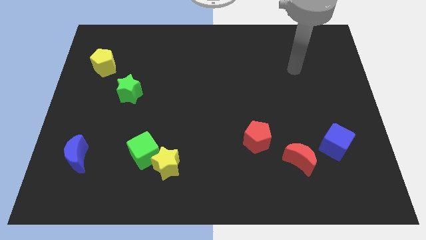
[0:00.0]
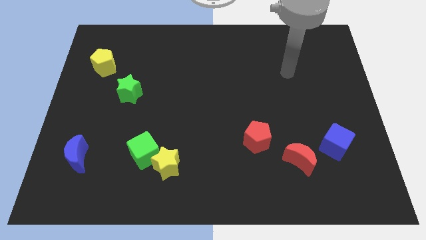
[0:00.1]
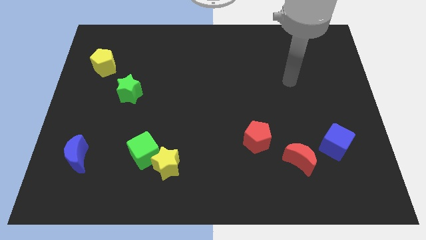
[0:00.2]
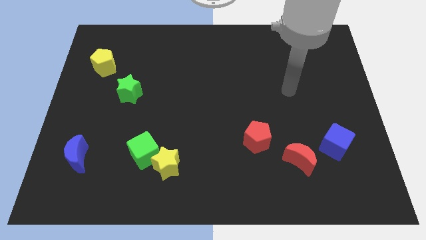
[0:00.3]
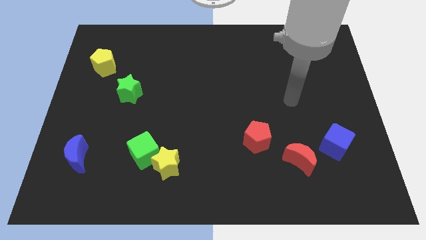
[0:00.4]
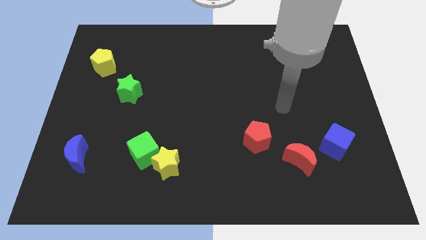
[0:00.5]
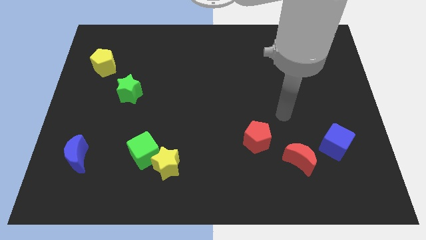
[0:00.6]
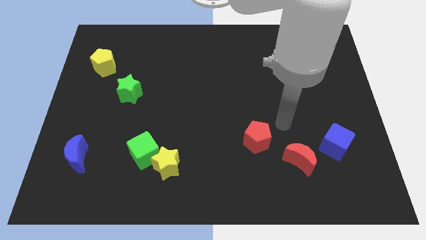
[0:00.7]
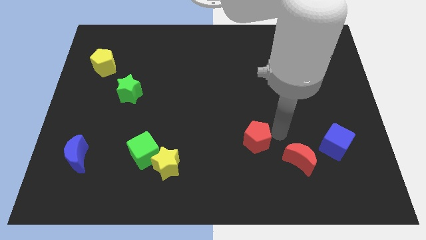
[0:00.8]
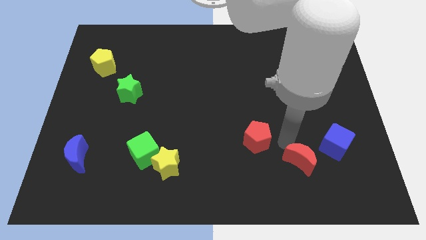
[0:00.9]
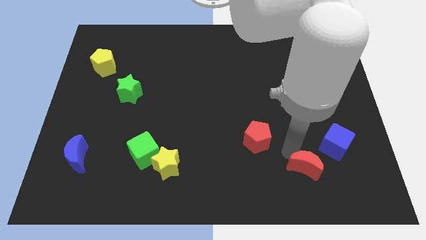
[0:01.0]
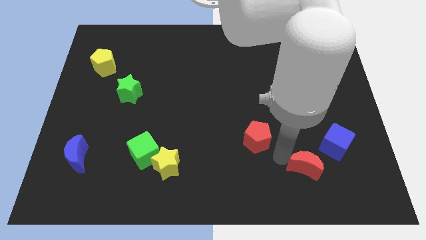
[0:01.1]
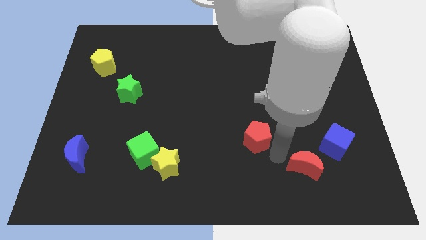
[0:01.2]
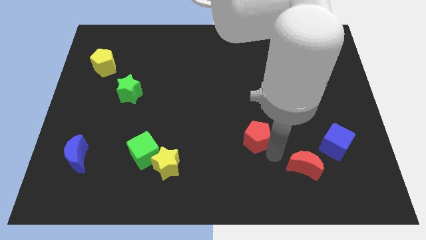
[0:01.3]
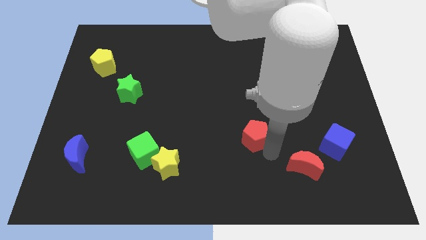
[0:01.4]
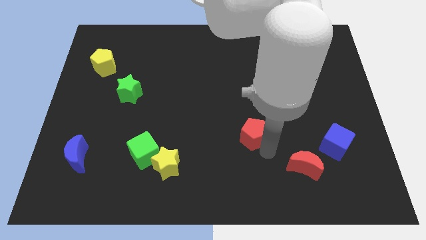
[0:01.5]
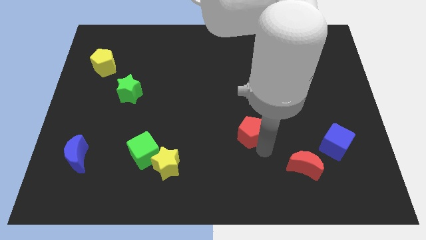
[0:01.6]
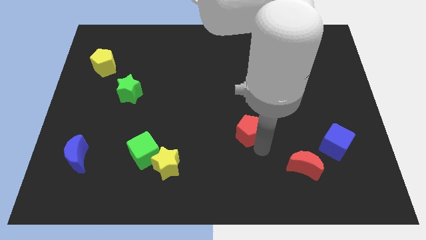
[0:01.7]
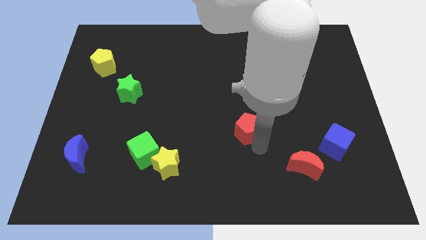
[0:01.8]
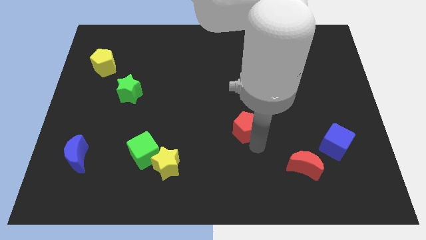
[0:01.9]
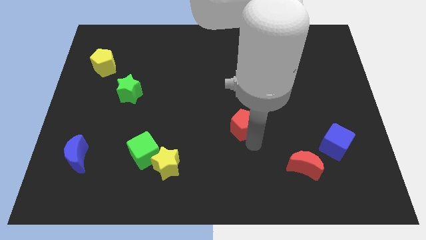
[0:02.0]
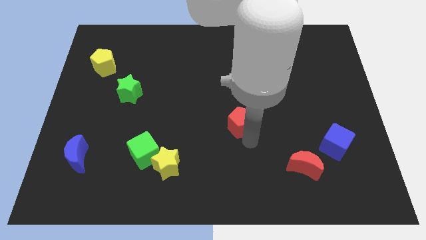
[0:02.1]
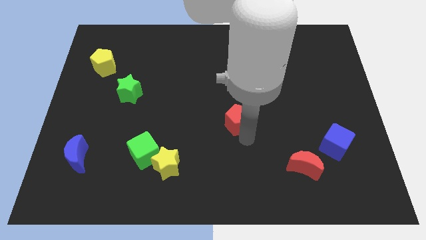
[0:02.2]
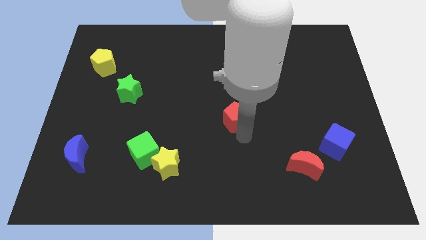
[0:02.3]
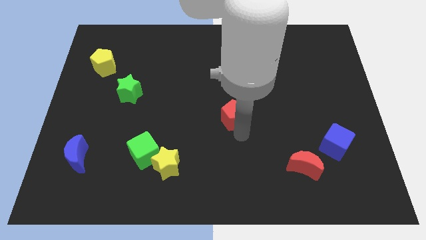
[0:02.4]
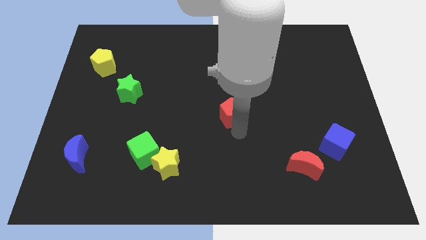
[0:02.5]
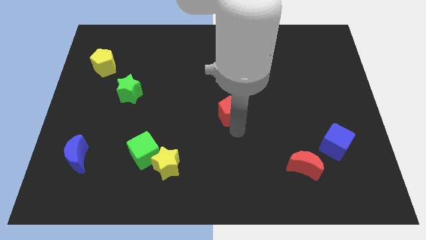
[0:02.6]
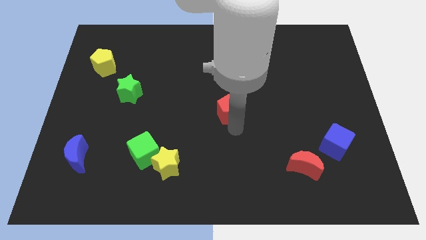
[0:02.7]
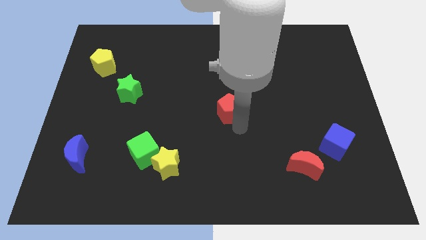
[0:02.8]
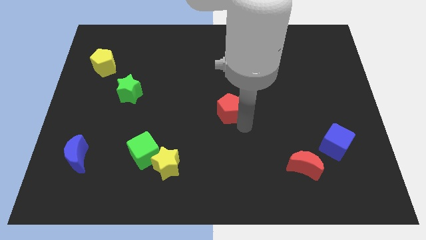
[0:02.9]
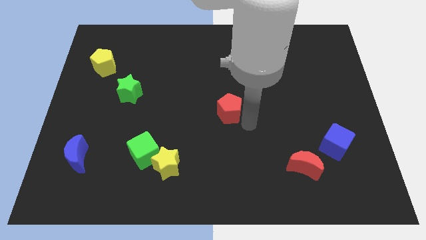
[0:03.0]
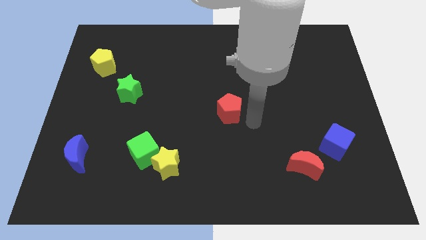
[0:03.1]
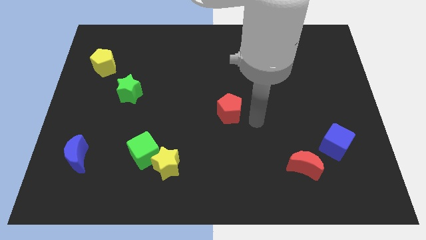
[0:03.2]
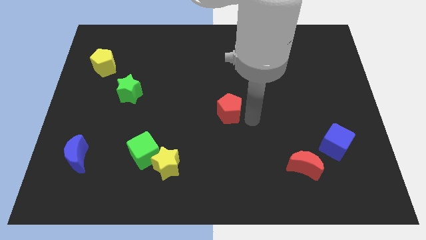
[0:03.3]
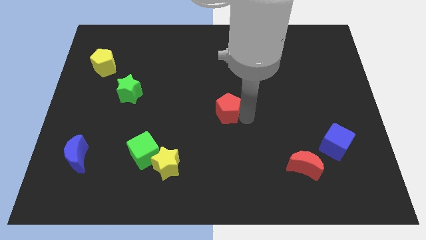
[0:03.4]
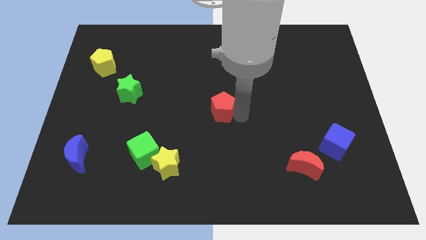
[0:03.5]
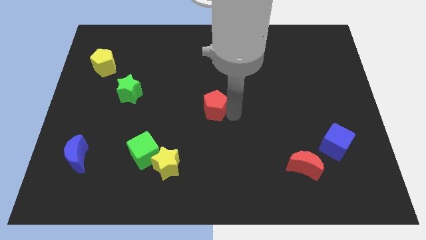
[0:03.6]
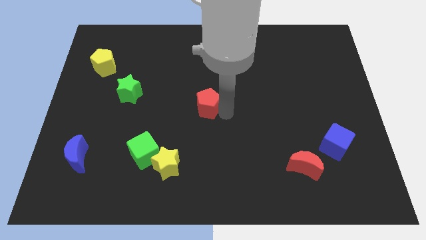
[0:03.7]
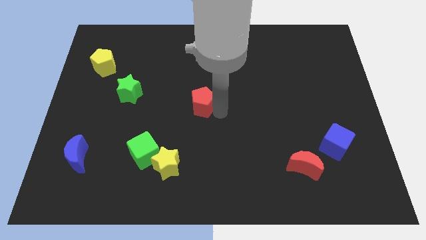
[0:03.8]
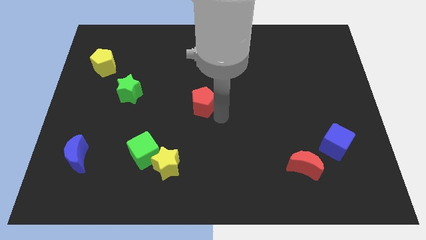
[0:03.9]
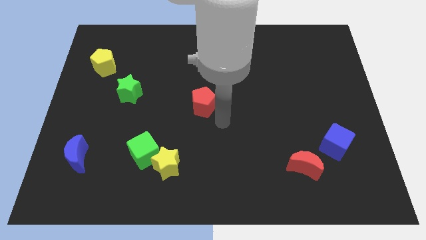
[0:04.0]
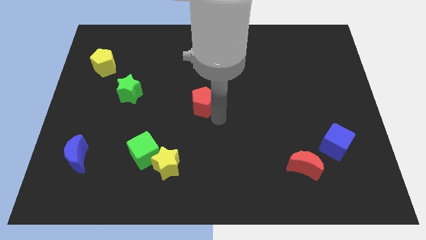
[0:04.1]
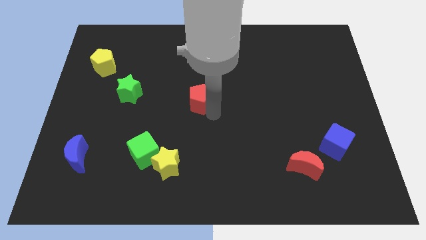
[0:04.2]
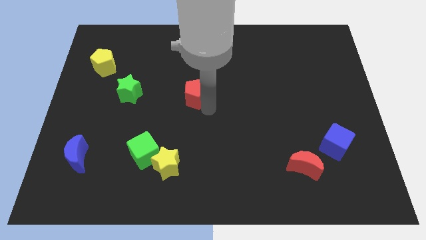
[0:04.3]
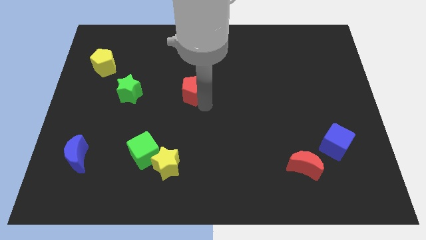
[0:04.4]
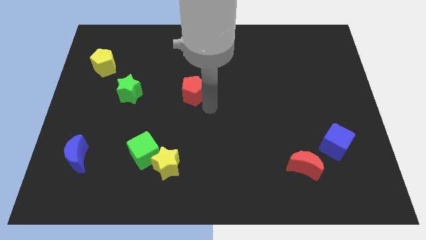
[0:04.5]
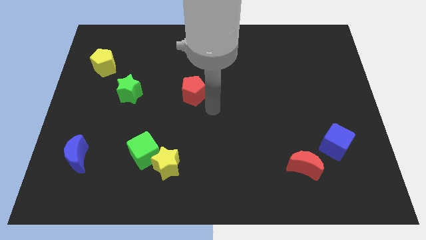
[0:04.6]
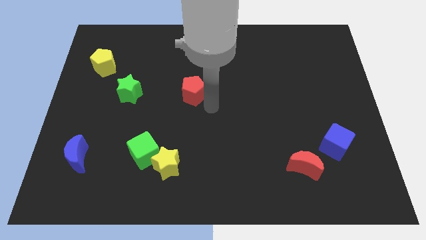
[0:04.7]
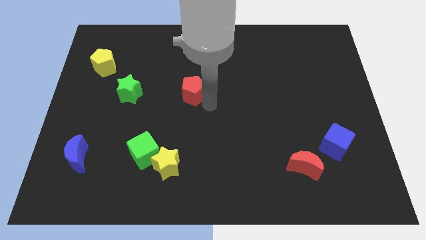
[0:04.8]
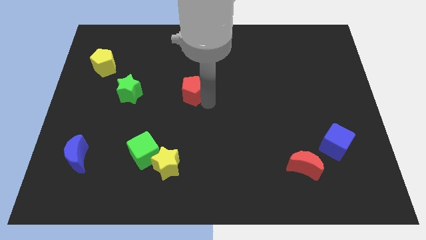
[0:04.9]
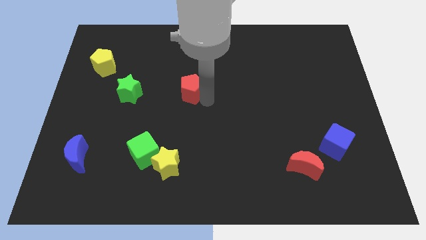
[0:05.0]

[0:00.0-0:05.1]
push the red pentagon upwards and to the left

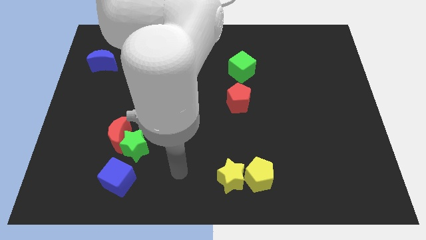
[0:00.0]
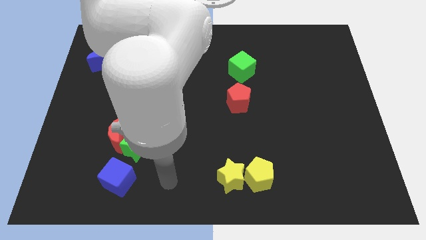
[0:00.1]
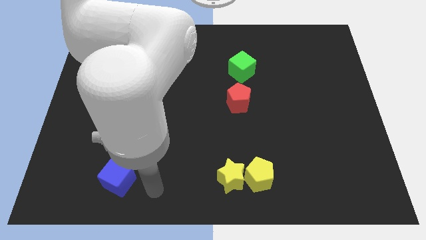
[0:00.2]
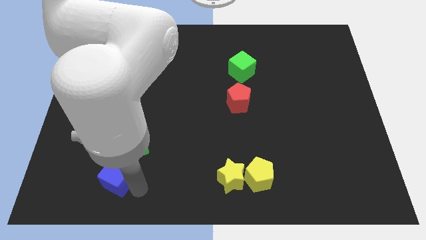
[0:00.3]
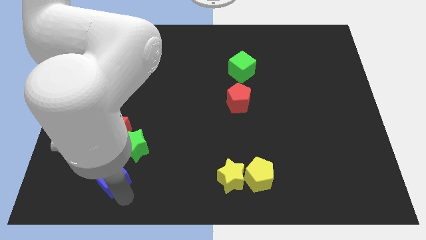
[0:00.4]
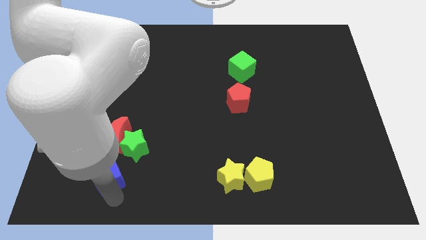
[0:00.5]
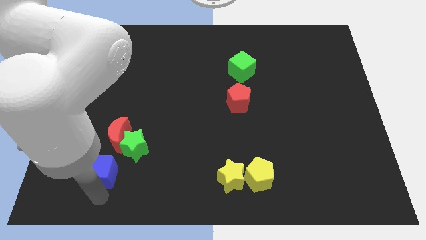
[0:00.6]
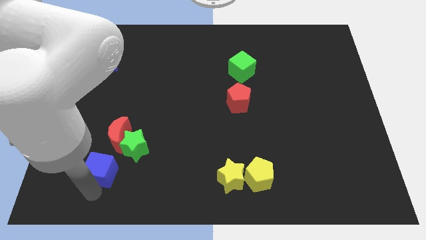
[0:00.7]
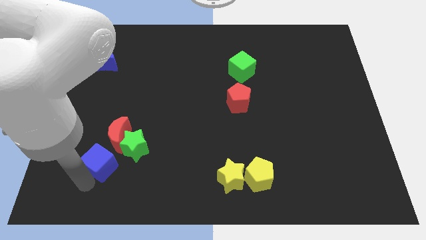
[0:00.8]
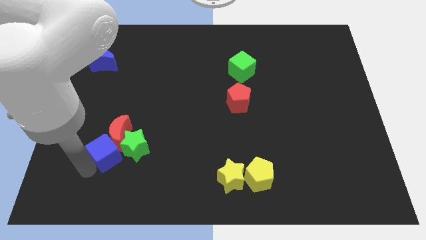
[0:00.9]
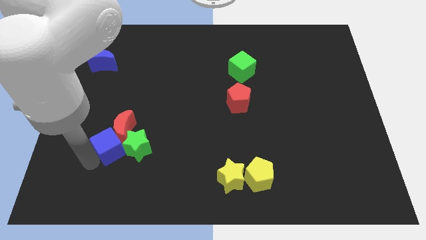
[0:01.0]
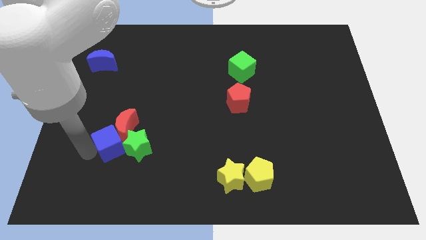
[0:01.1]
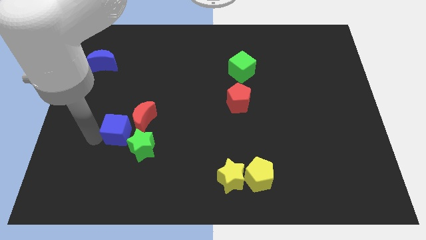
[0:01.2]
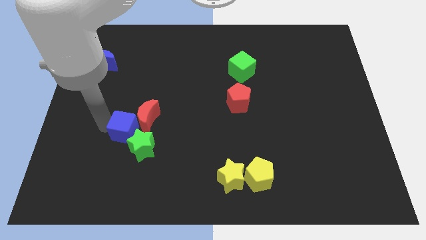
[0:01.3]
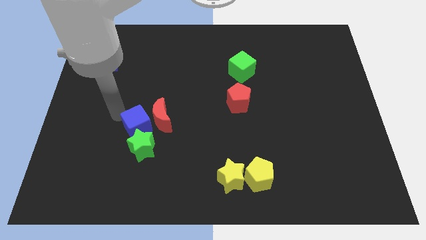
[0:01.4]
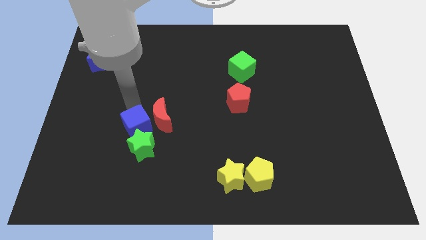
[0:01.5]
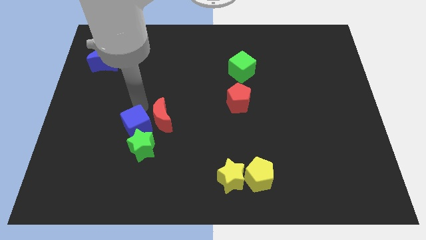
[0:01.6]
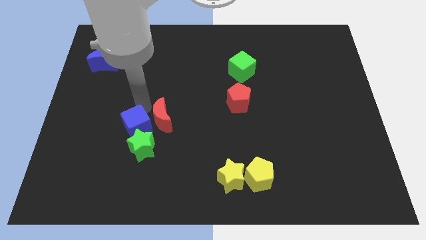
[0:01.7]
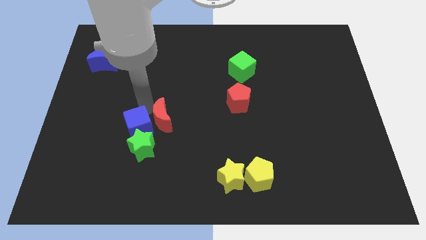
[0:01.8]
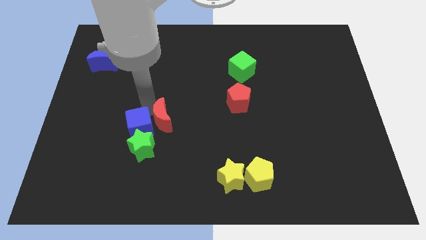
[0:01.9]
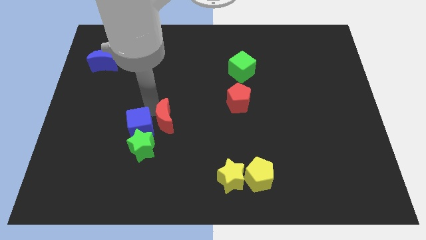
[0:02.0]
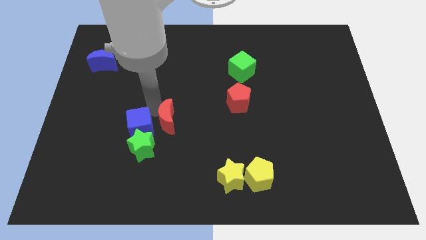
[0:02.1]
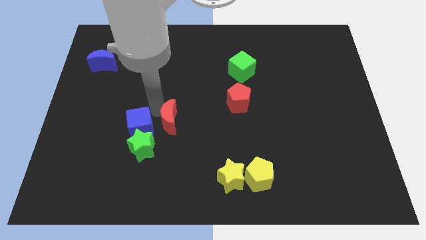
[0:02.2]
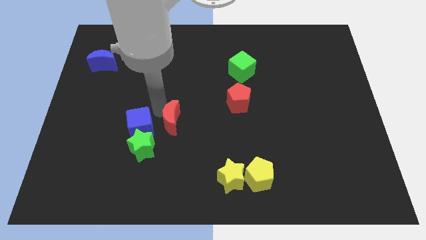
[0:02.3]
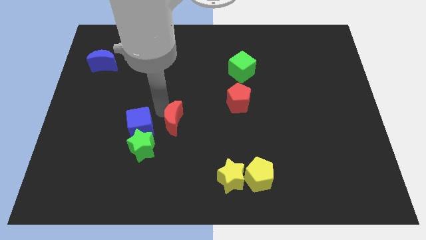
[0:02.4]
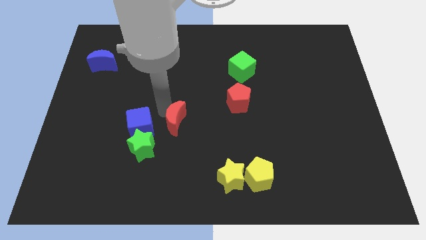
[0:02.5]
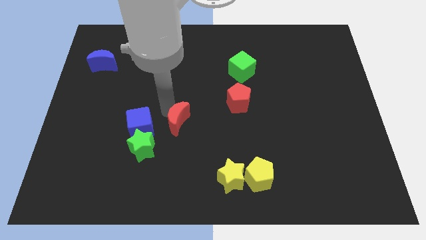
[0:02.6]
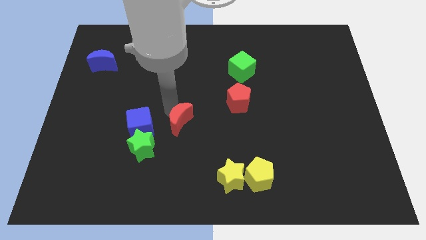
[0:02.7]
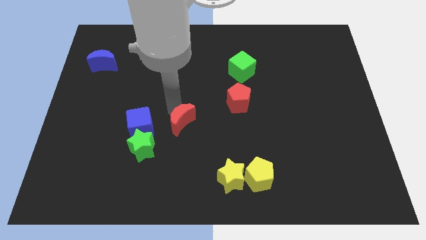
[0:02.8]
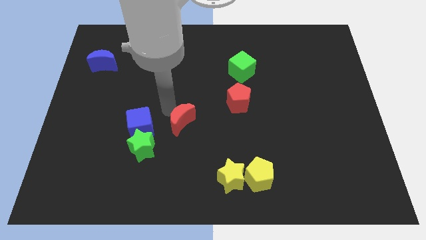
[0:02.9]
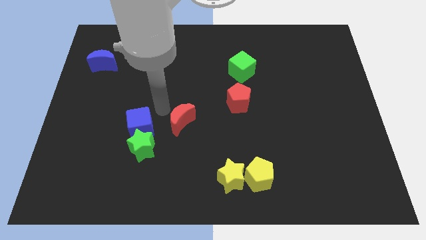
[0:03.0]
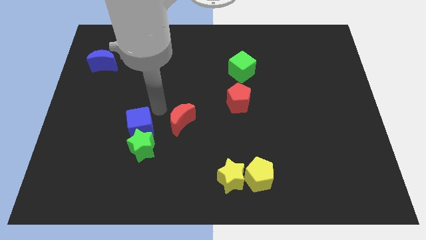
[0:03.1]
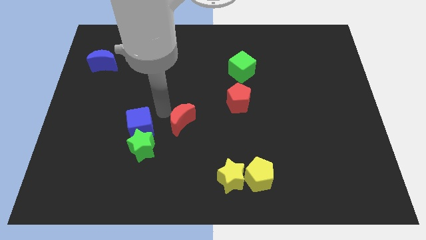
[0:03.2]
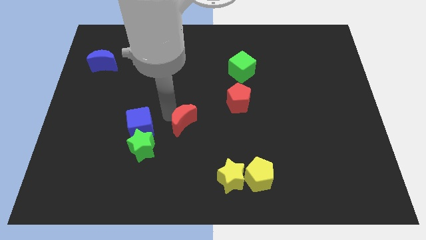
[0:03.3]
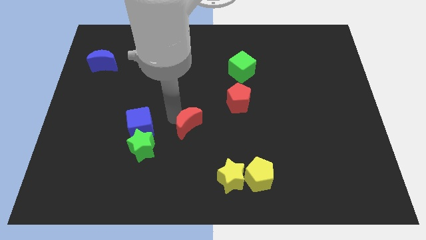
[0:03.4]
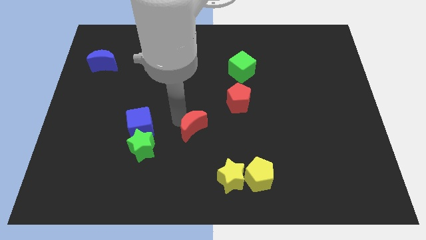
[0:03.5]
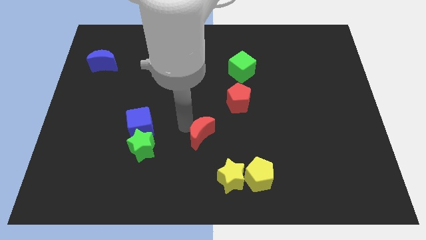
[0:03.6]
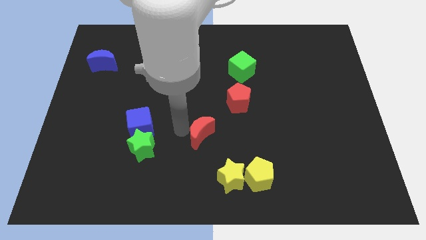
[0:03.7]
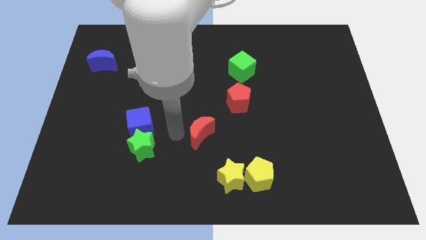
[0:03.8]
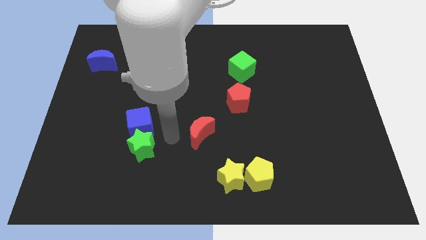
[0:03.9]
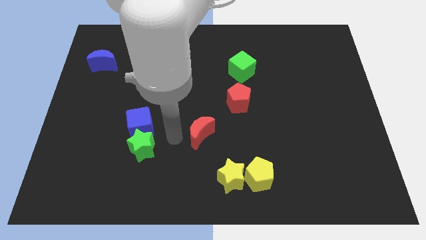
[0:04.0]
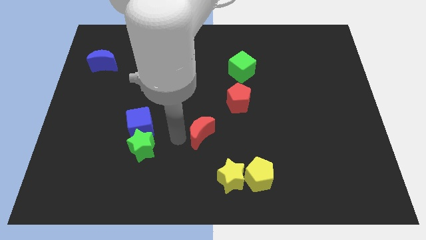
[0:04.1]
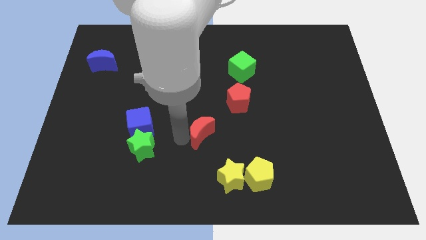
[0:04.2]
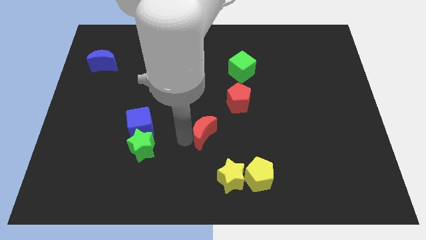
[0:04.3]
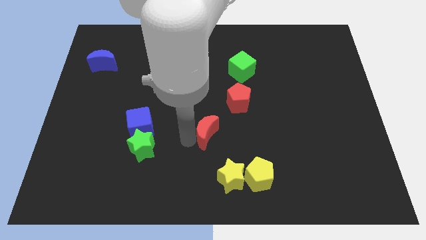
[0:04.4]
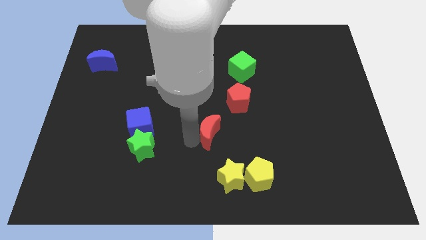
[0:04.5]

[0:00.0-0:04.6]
slide the red moon to the right
